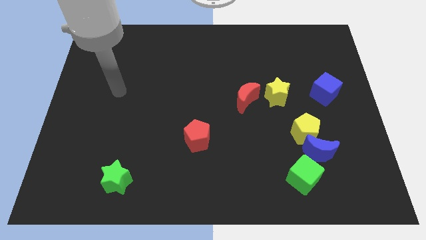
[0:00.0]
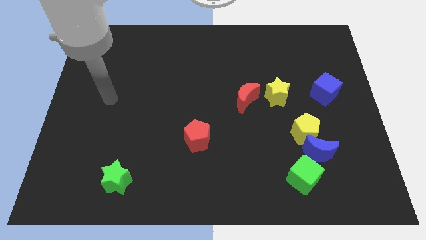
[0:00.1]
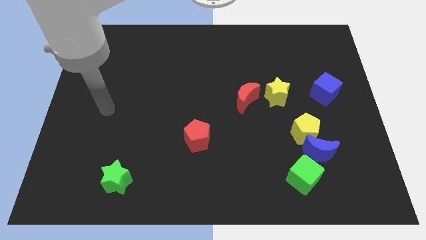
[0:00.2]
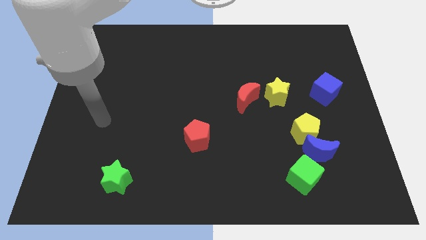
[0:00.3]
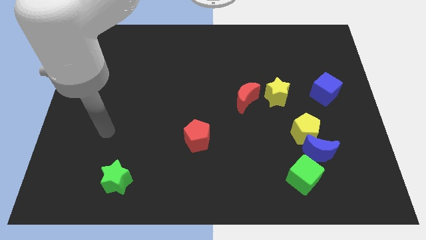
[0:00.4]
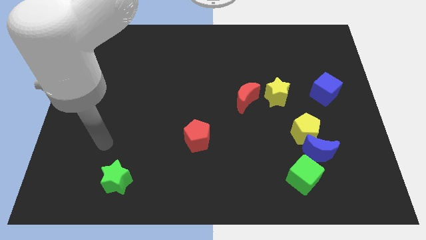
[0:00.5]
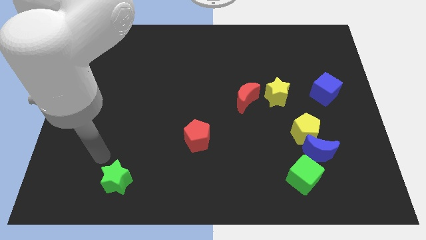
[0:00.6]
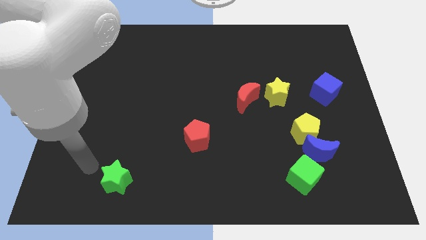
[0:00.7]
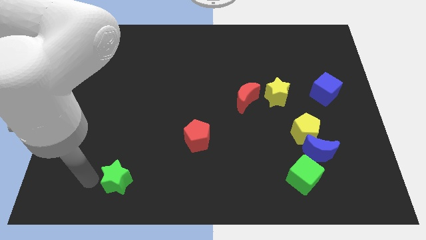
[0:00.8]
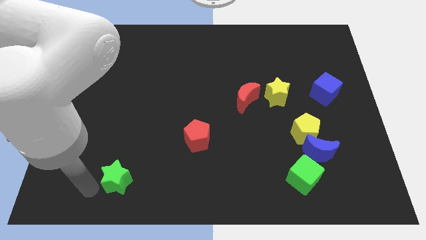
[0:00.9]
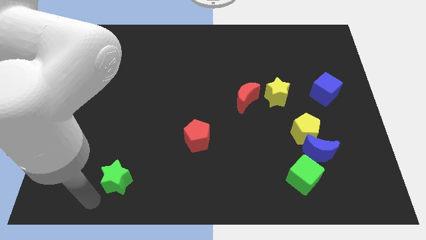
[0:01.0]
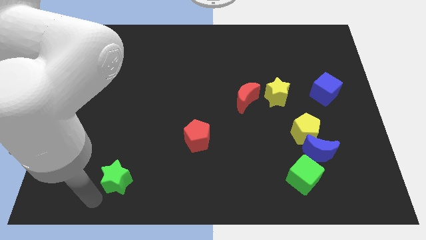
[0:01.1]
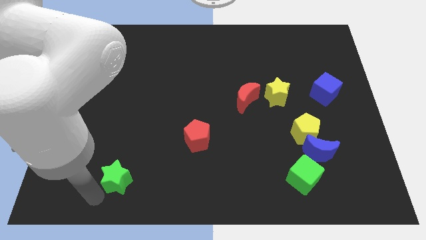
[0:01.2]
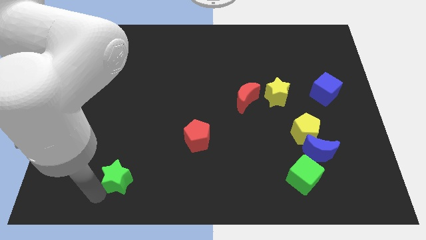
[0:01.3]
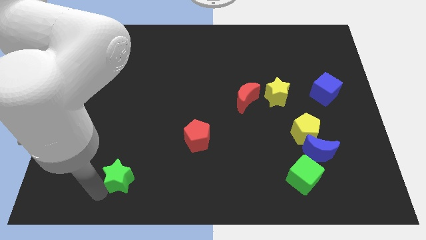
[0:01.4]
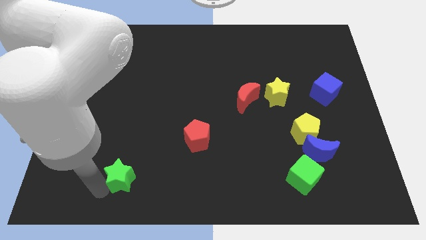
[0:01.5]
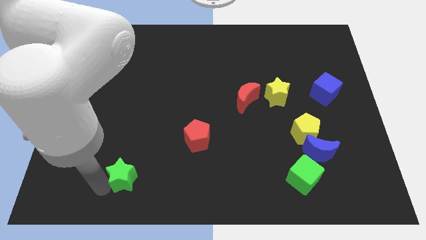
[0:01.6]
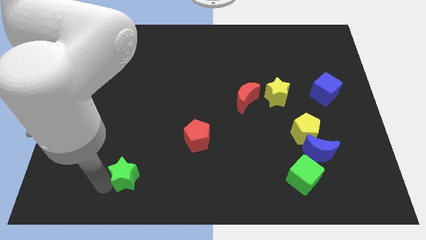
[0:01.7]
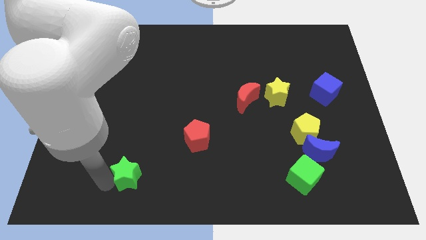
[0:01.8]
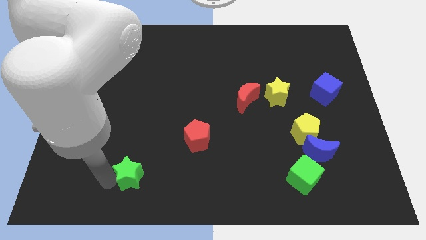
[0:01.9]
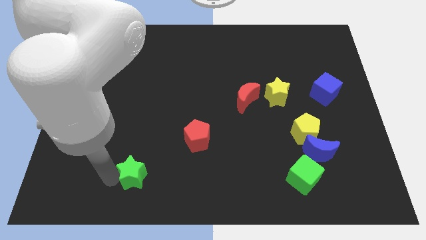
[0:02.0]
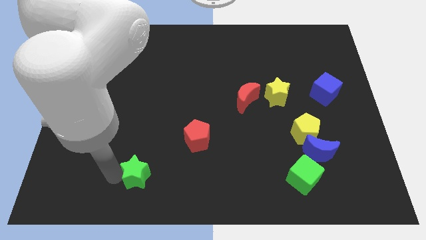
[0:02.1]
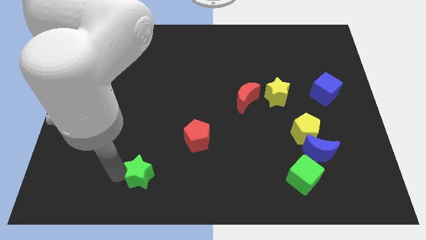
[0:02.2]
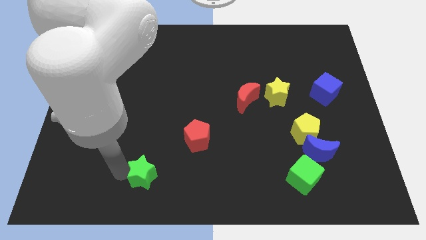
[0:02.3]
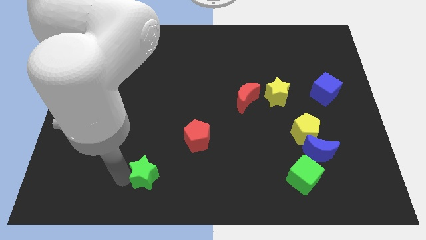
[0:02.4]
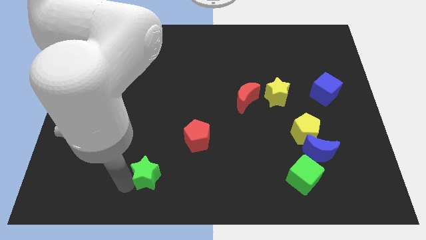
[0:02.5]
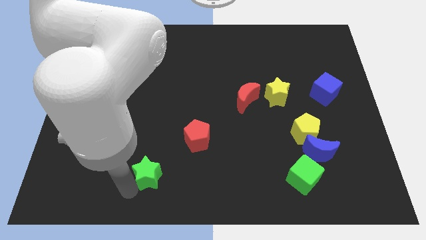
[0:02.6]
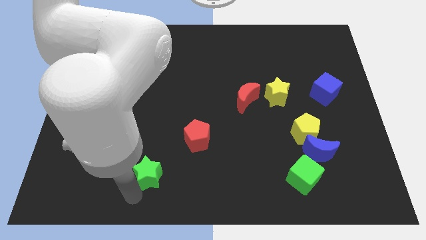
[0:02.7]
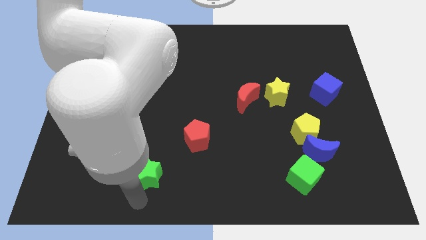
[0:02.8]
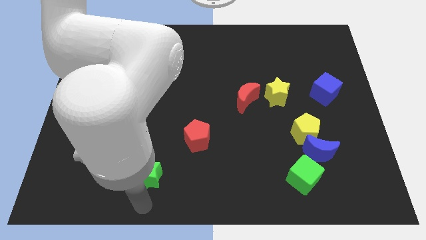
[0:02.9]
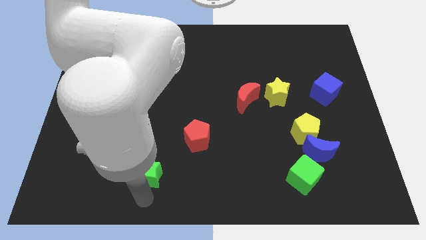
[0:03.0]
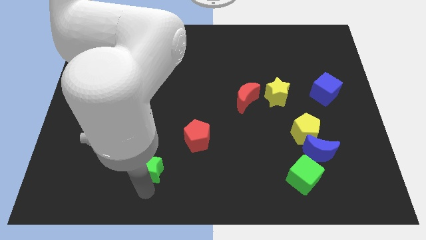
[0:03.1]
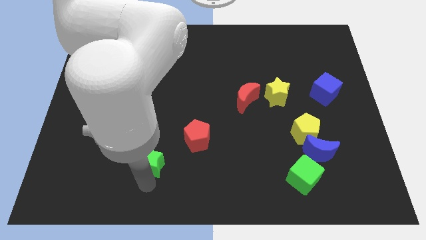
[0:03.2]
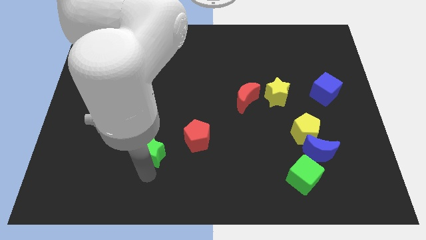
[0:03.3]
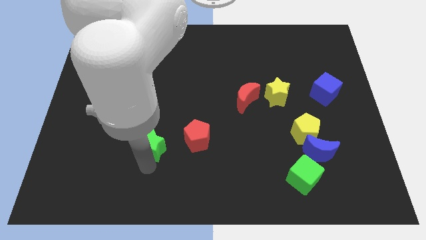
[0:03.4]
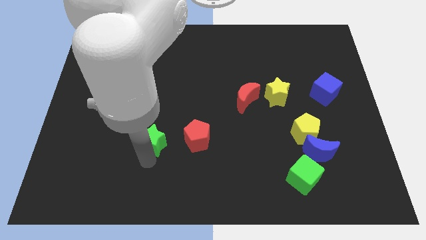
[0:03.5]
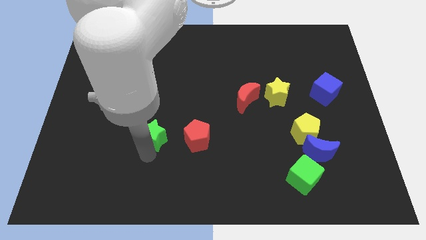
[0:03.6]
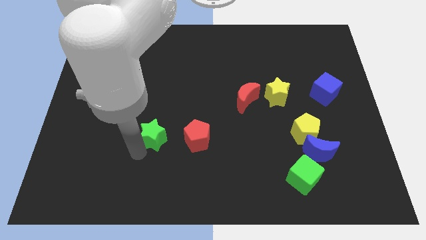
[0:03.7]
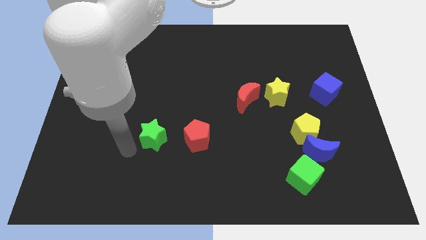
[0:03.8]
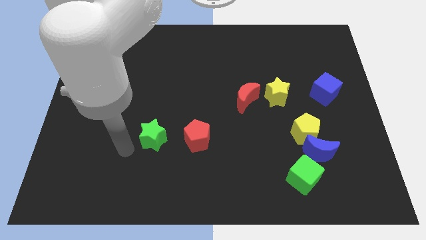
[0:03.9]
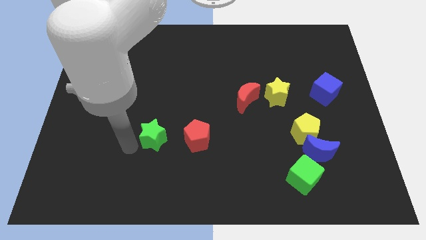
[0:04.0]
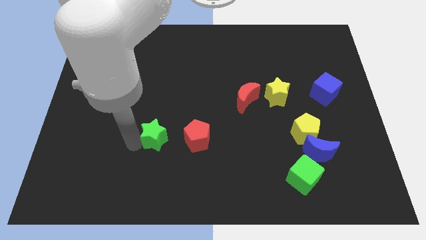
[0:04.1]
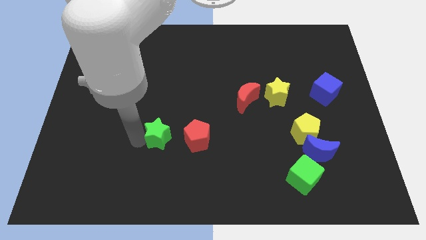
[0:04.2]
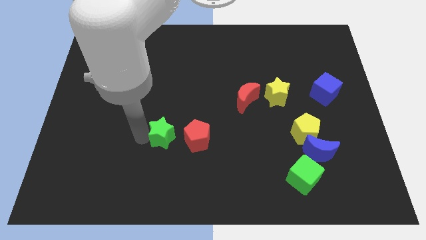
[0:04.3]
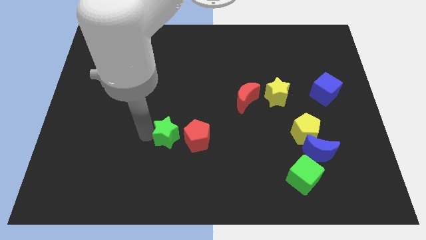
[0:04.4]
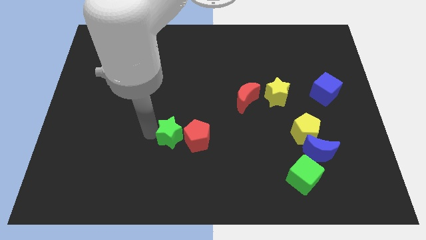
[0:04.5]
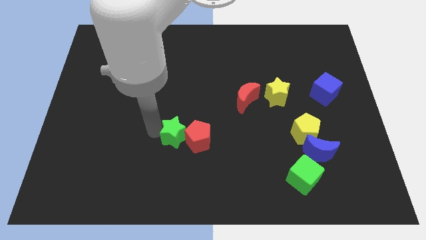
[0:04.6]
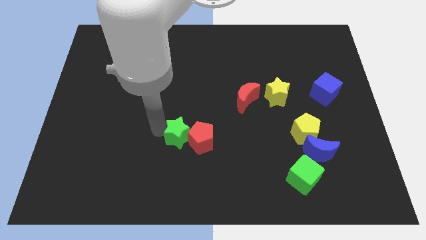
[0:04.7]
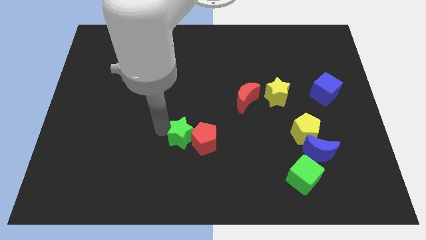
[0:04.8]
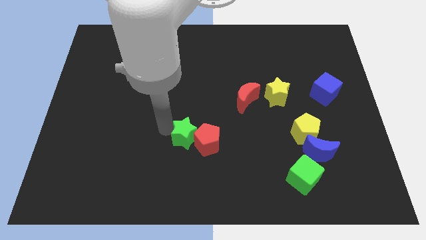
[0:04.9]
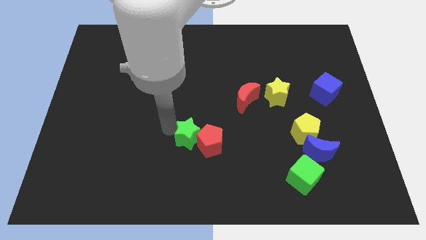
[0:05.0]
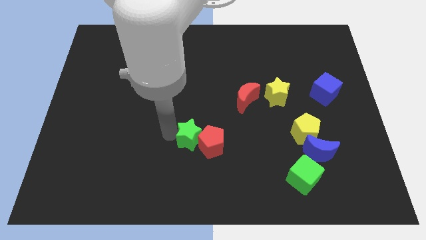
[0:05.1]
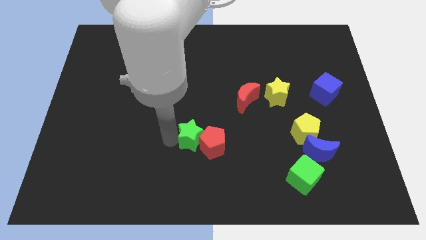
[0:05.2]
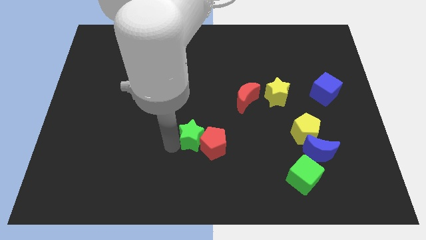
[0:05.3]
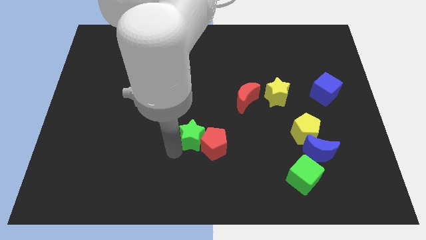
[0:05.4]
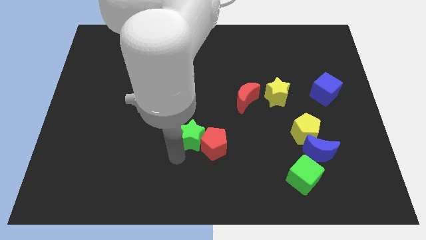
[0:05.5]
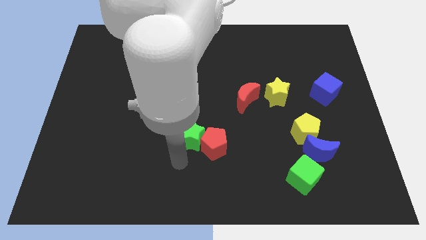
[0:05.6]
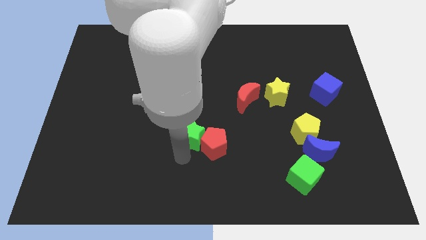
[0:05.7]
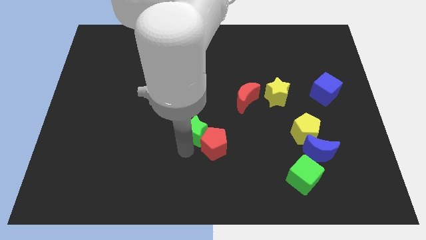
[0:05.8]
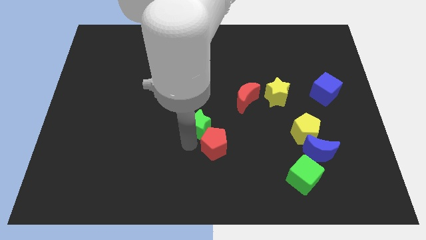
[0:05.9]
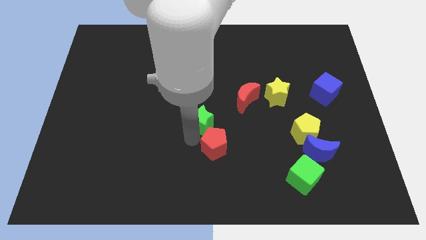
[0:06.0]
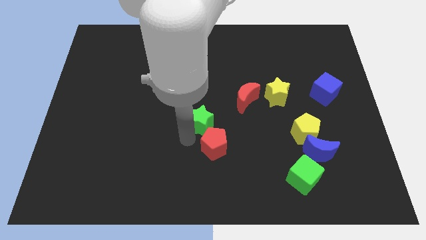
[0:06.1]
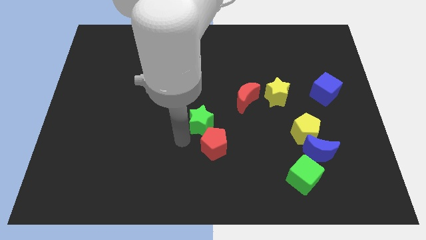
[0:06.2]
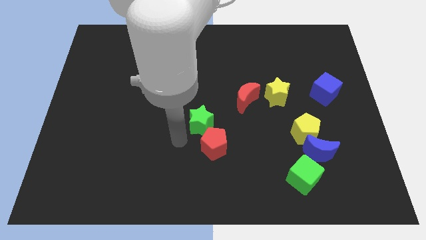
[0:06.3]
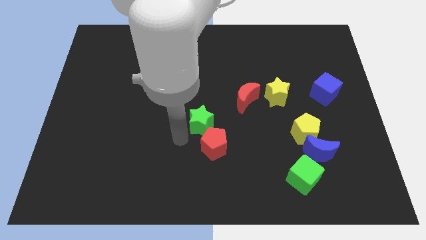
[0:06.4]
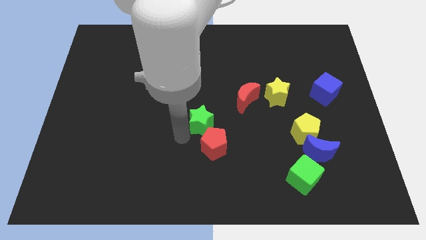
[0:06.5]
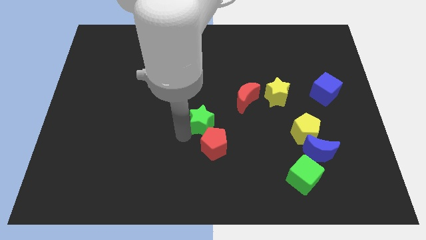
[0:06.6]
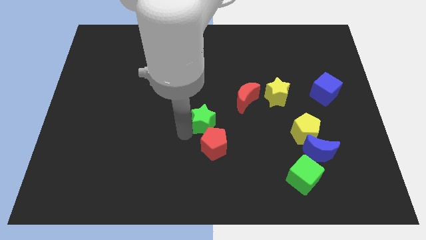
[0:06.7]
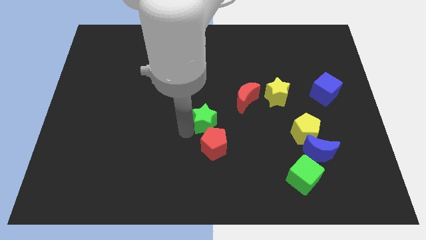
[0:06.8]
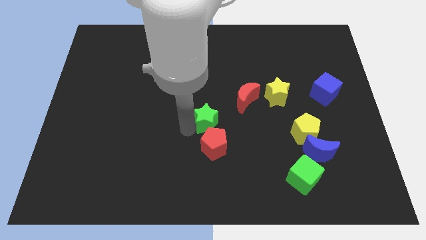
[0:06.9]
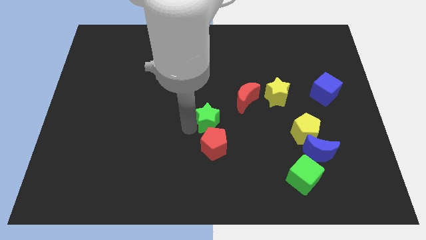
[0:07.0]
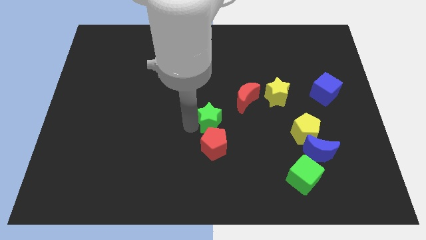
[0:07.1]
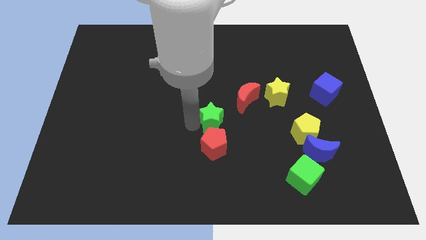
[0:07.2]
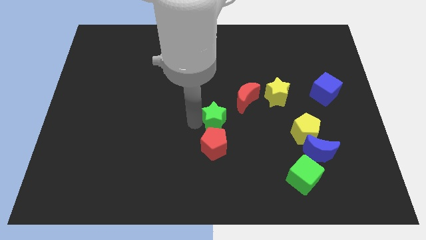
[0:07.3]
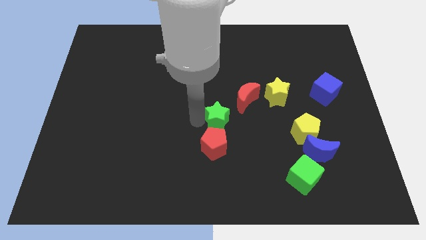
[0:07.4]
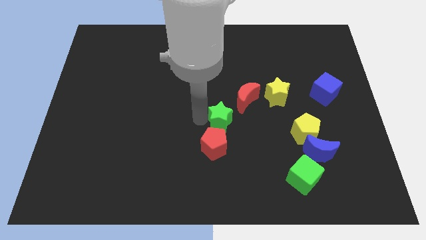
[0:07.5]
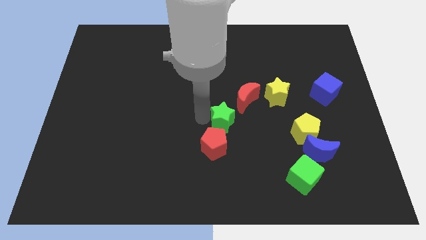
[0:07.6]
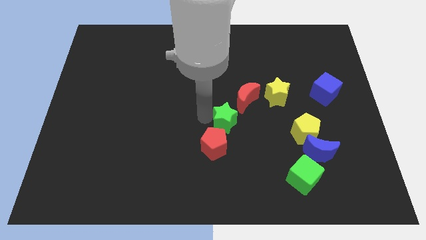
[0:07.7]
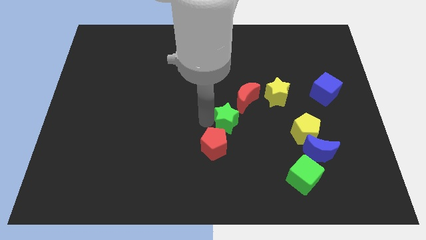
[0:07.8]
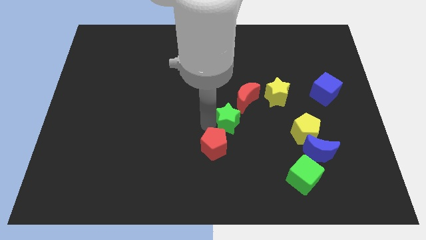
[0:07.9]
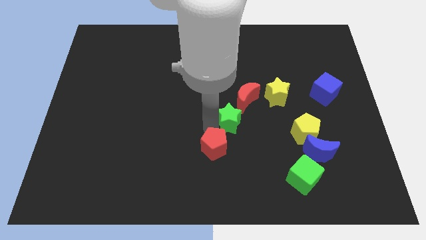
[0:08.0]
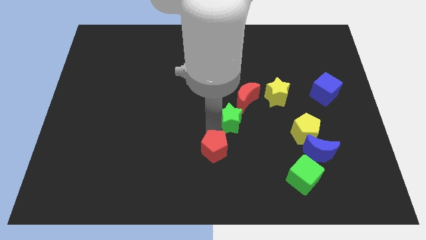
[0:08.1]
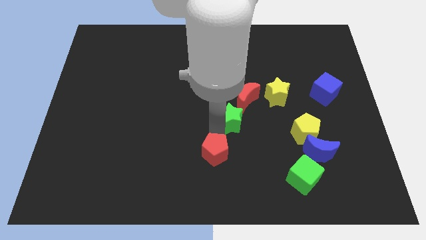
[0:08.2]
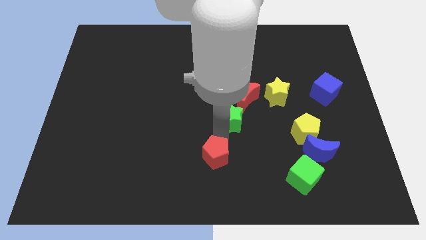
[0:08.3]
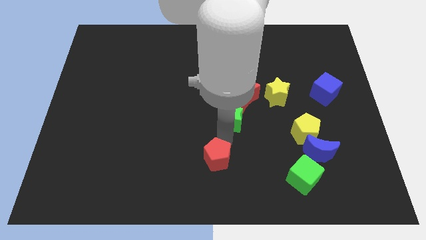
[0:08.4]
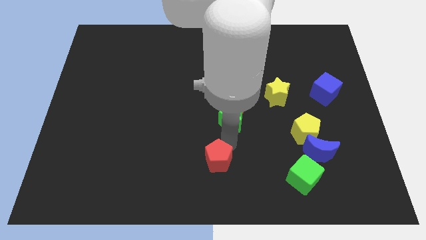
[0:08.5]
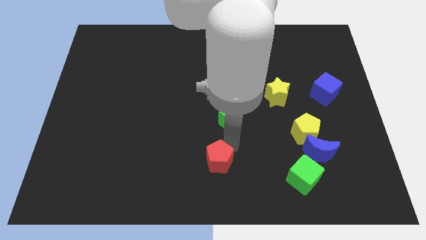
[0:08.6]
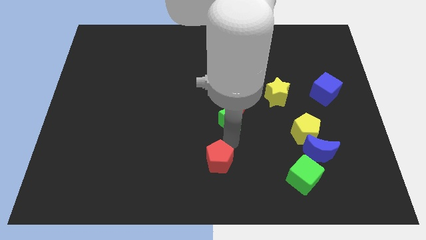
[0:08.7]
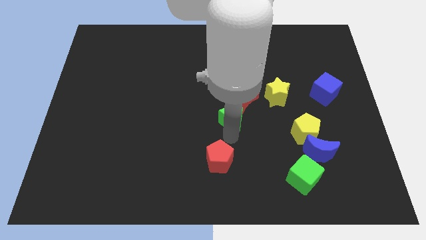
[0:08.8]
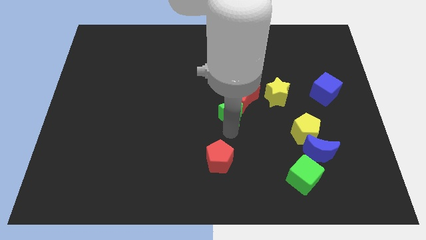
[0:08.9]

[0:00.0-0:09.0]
move the green star towards the red moon
